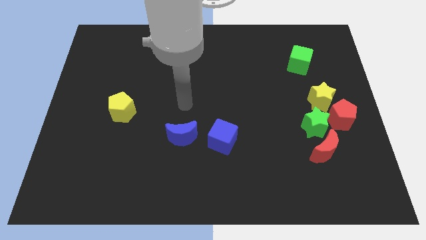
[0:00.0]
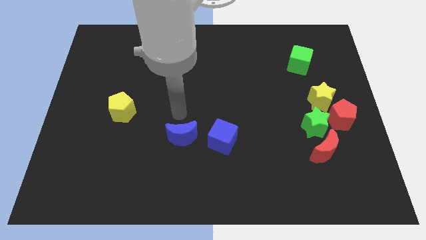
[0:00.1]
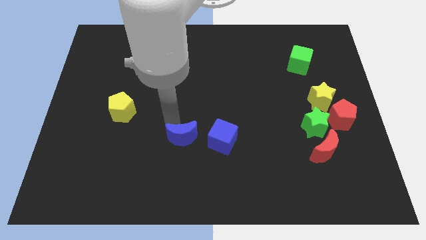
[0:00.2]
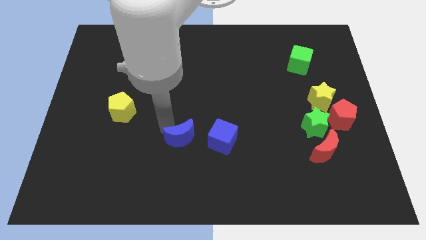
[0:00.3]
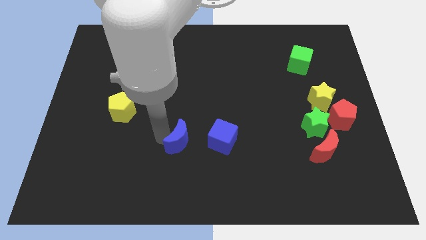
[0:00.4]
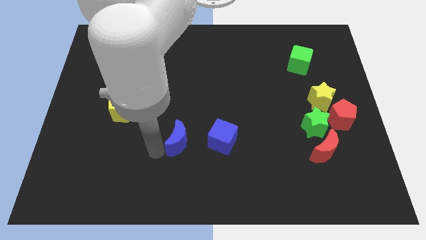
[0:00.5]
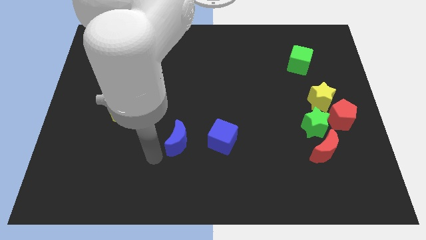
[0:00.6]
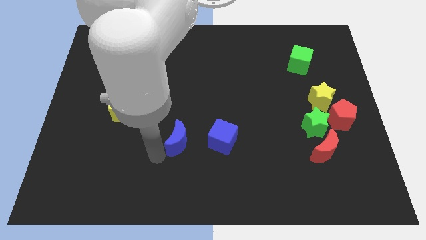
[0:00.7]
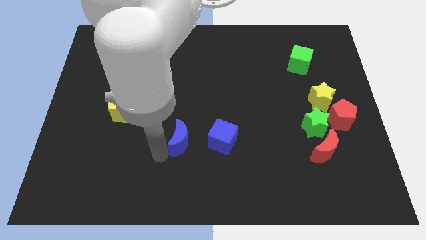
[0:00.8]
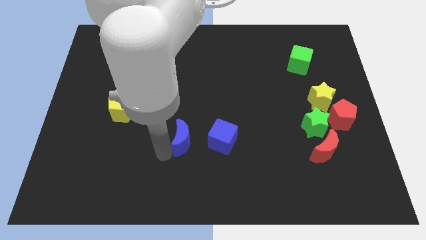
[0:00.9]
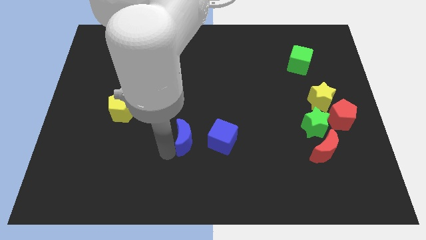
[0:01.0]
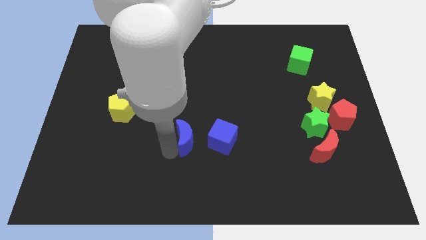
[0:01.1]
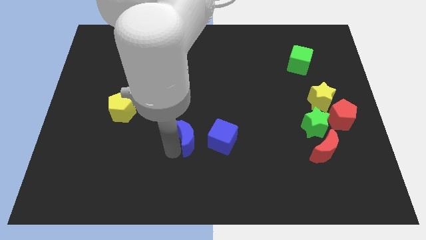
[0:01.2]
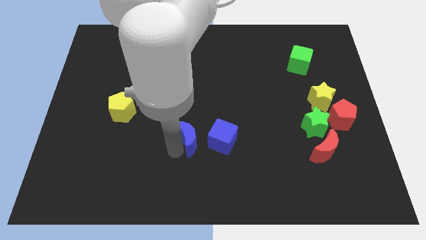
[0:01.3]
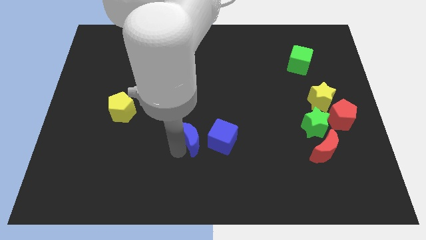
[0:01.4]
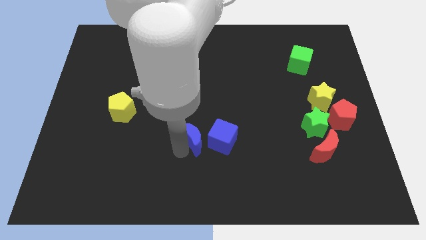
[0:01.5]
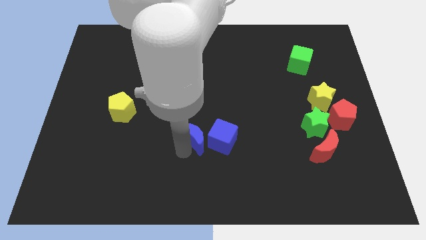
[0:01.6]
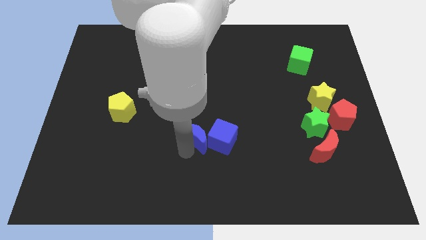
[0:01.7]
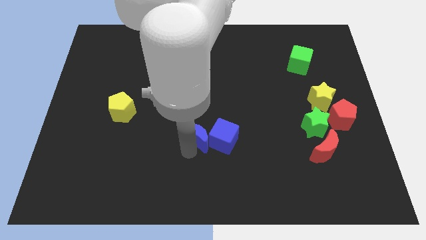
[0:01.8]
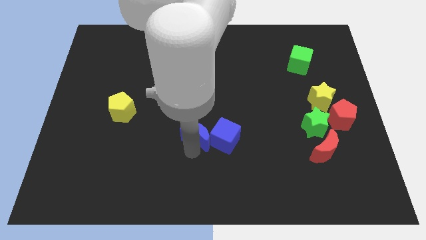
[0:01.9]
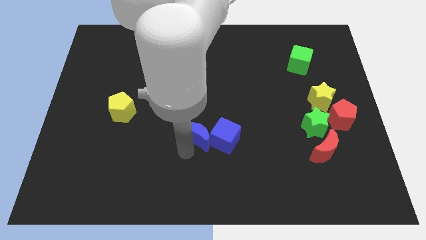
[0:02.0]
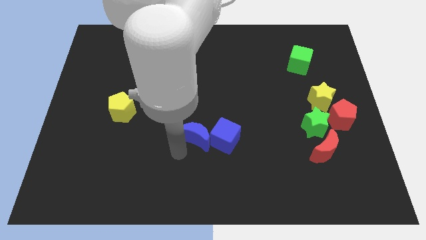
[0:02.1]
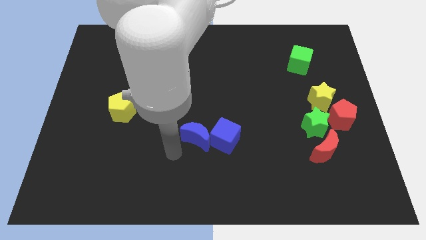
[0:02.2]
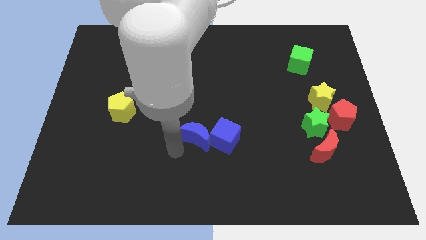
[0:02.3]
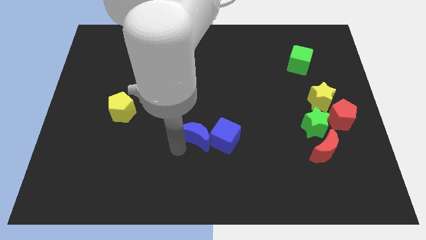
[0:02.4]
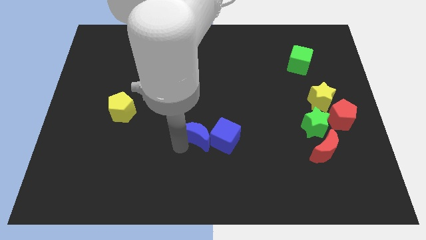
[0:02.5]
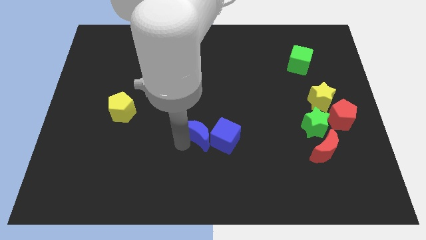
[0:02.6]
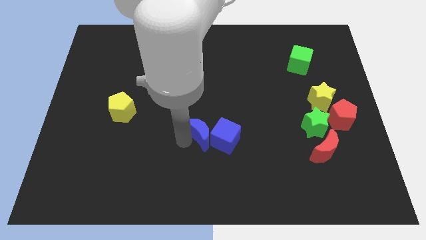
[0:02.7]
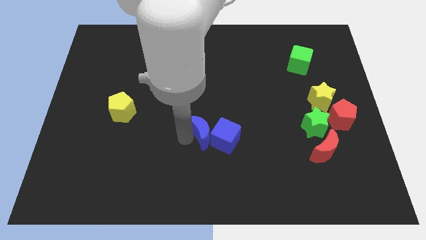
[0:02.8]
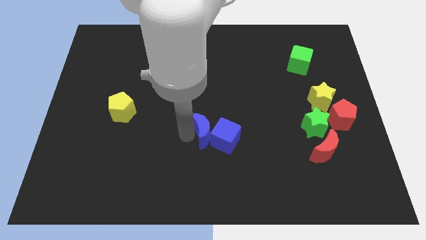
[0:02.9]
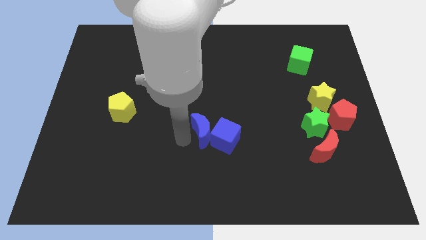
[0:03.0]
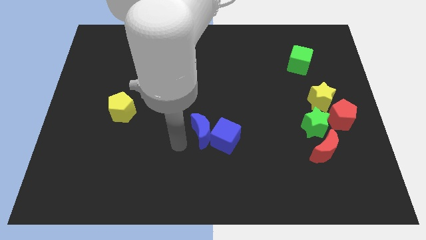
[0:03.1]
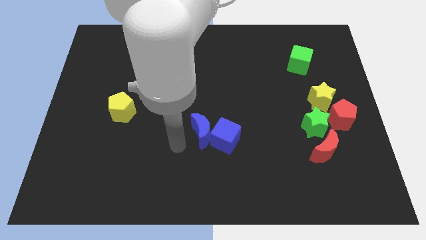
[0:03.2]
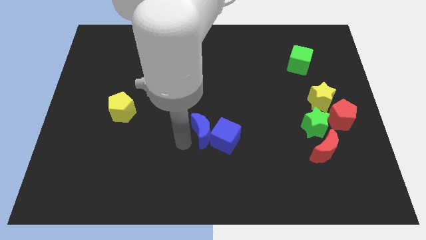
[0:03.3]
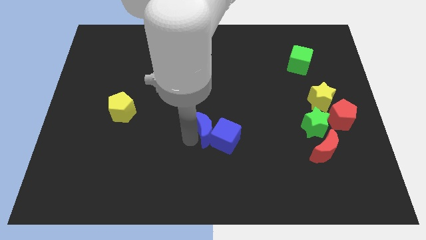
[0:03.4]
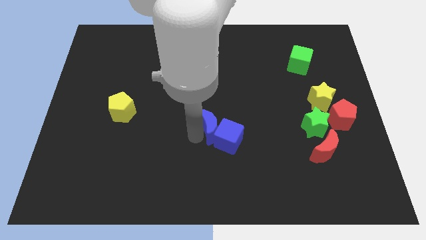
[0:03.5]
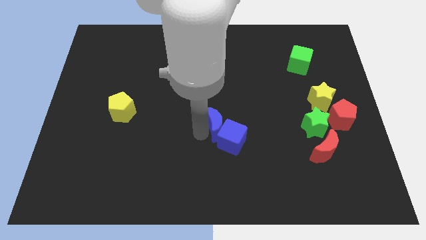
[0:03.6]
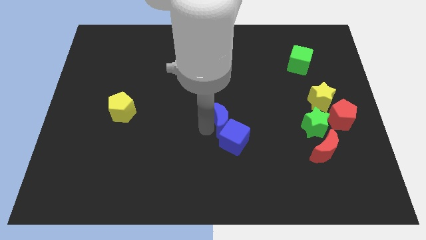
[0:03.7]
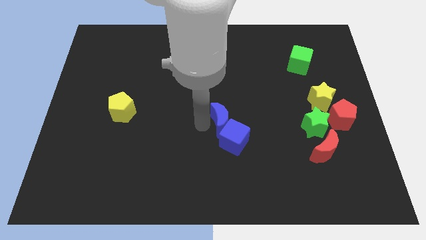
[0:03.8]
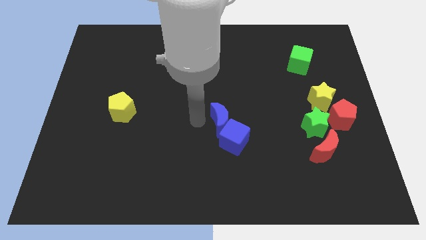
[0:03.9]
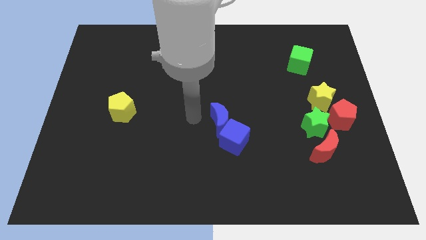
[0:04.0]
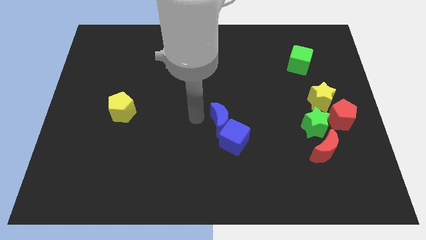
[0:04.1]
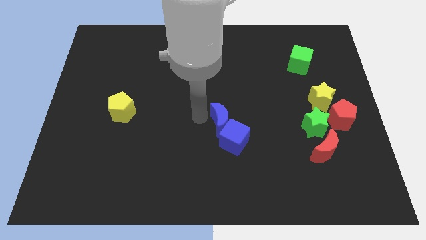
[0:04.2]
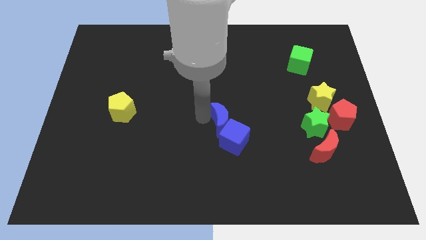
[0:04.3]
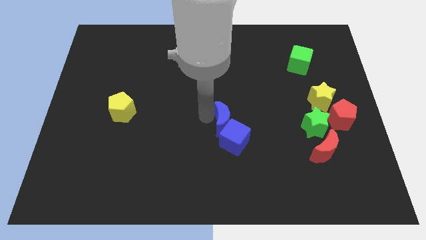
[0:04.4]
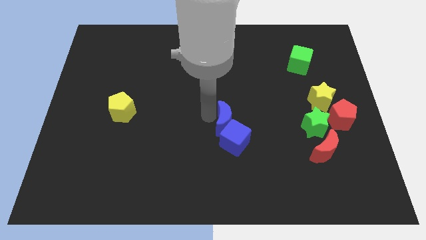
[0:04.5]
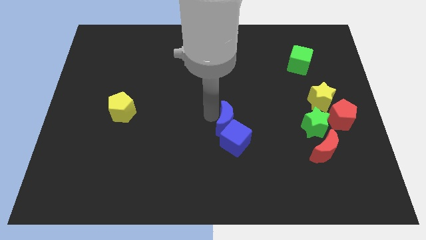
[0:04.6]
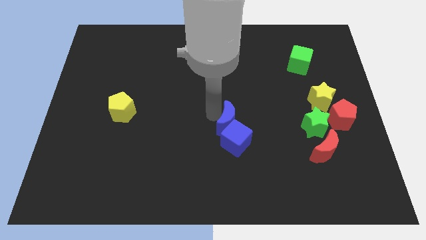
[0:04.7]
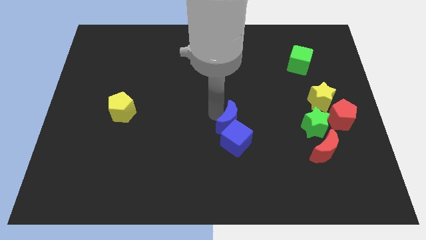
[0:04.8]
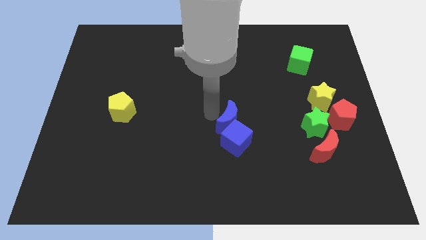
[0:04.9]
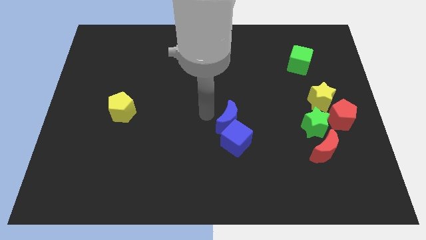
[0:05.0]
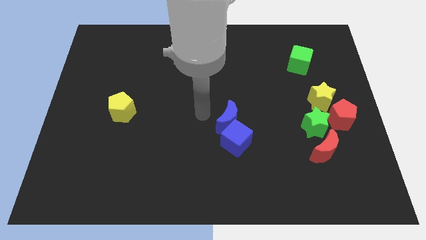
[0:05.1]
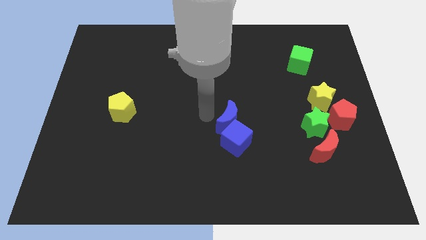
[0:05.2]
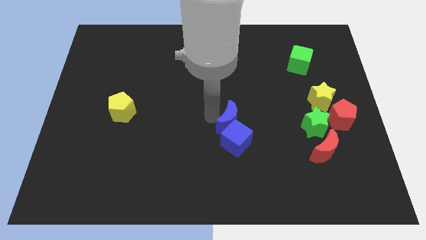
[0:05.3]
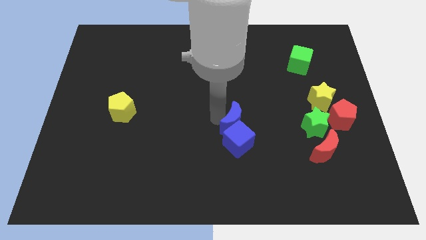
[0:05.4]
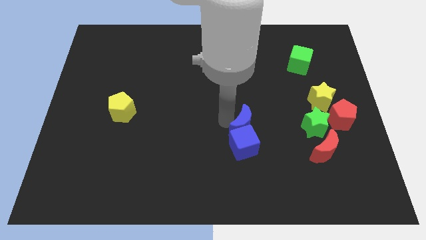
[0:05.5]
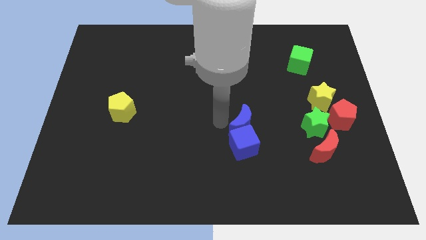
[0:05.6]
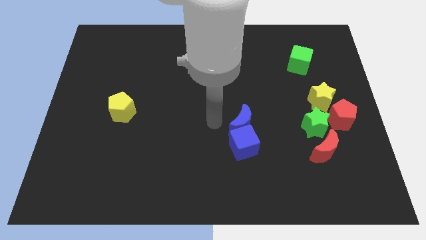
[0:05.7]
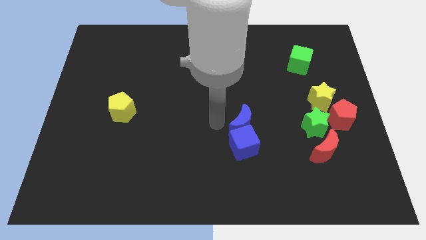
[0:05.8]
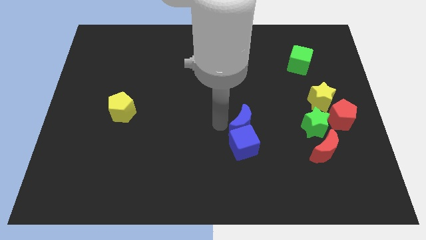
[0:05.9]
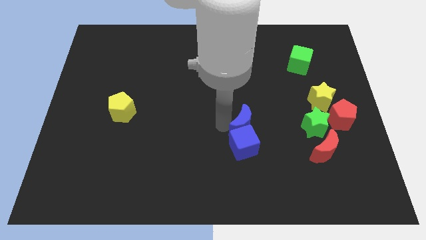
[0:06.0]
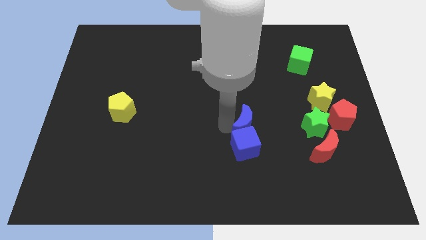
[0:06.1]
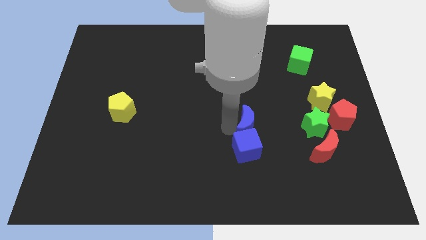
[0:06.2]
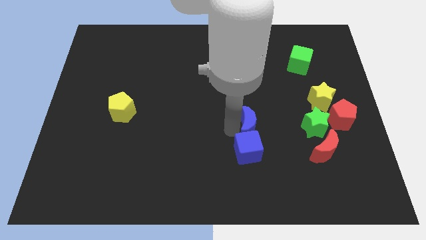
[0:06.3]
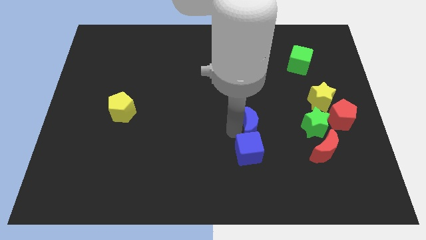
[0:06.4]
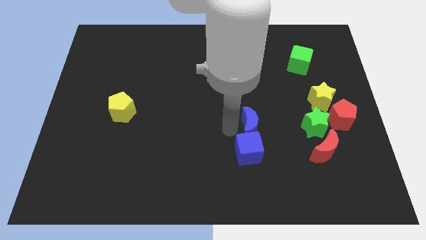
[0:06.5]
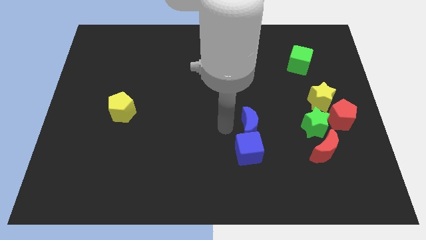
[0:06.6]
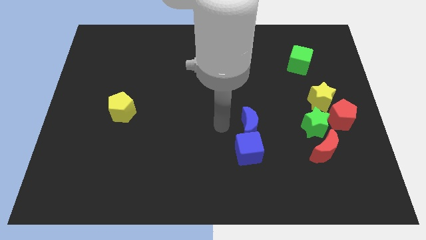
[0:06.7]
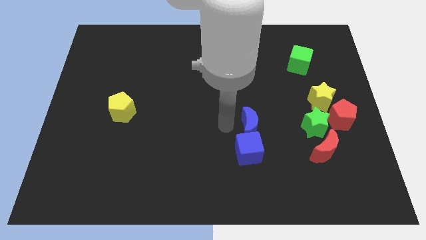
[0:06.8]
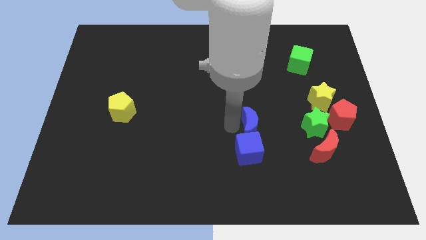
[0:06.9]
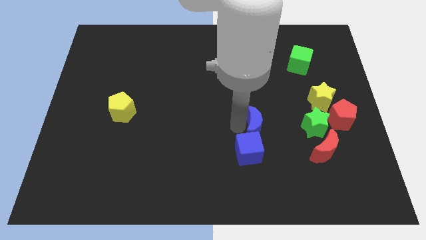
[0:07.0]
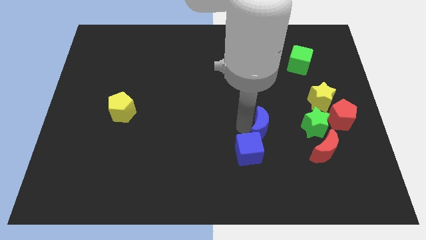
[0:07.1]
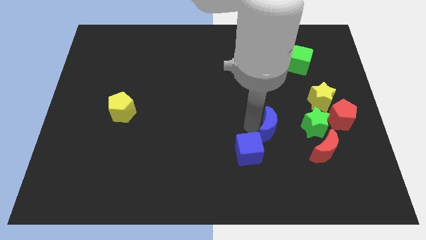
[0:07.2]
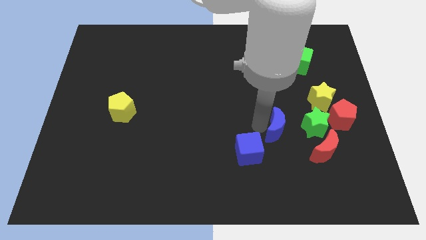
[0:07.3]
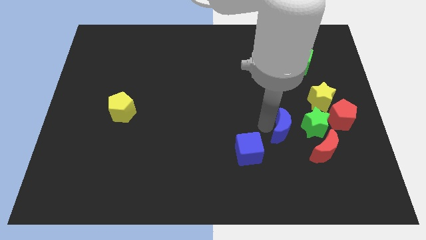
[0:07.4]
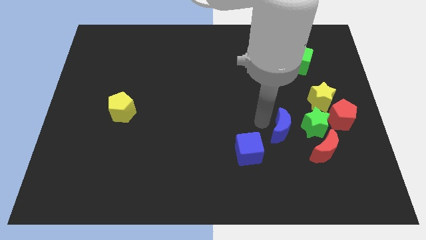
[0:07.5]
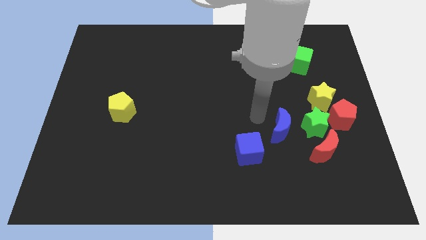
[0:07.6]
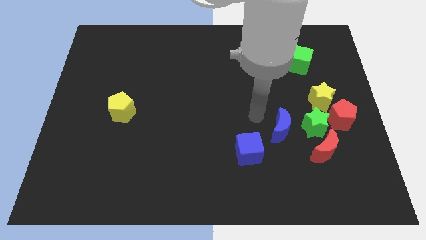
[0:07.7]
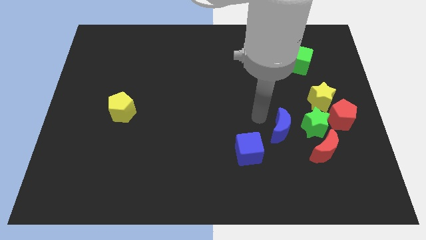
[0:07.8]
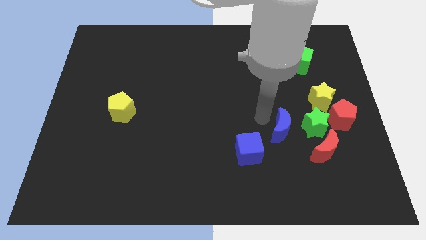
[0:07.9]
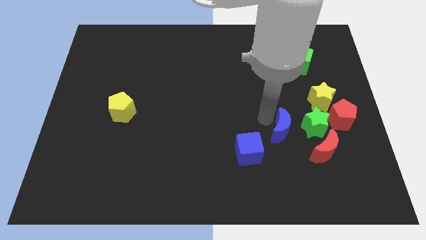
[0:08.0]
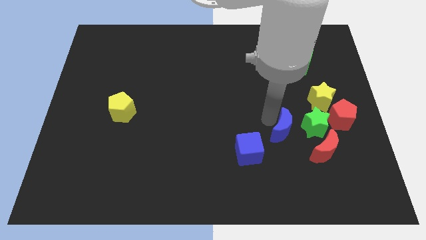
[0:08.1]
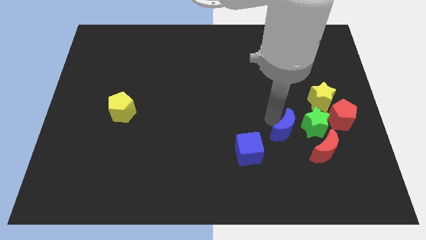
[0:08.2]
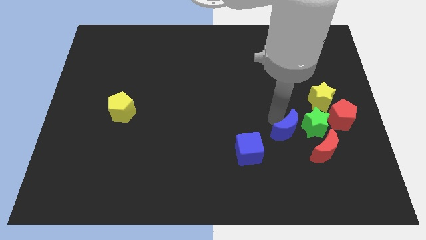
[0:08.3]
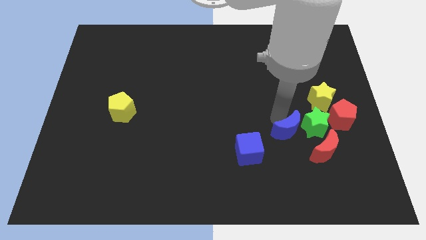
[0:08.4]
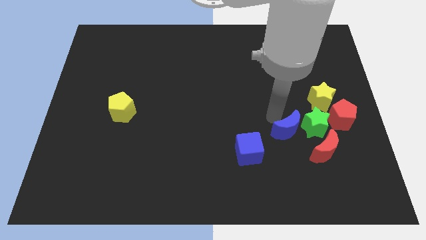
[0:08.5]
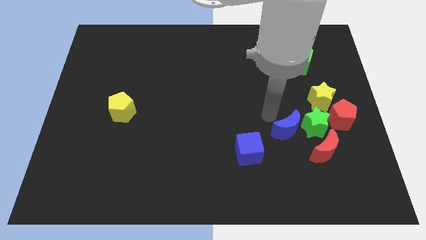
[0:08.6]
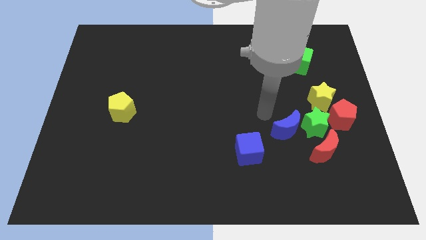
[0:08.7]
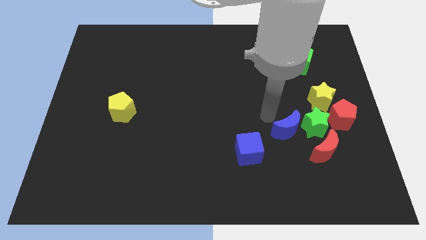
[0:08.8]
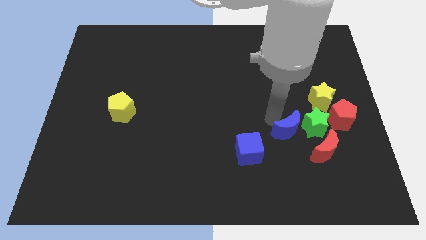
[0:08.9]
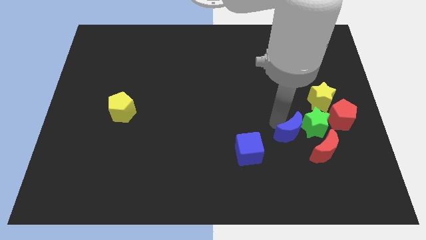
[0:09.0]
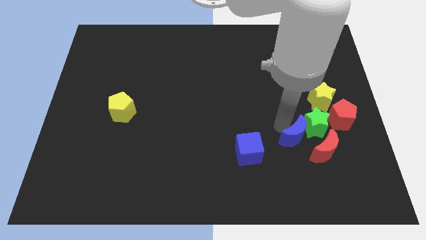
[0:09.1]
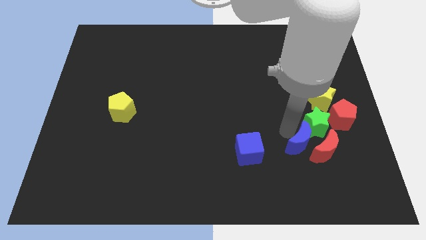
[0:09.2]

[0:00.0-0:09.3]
slide the blue moon next to the red moon
